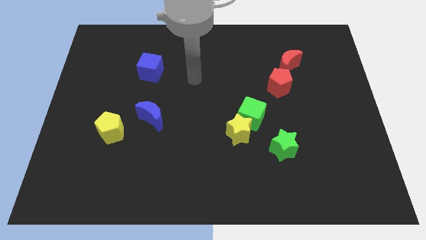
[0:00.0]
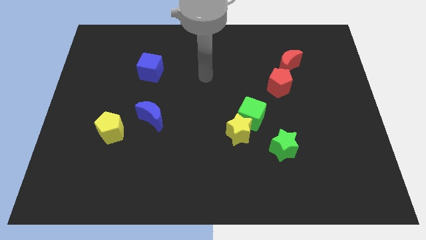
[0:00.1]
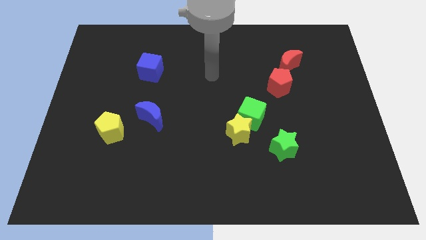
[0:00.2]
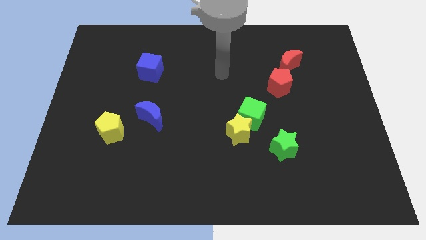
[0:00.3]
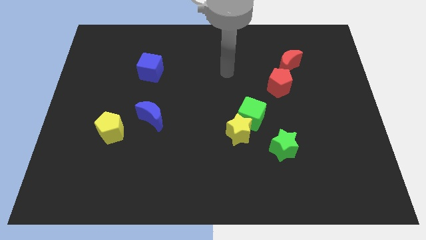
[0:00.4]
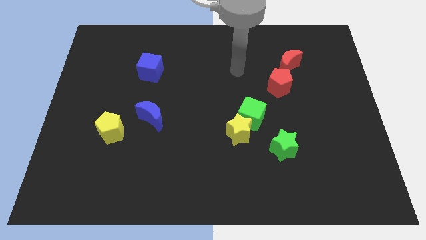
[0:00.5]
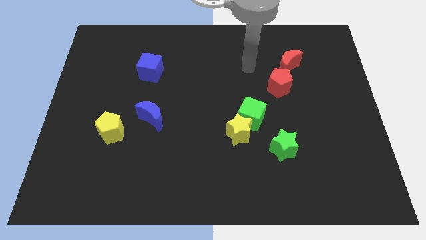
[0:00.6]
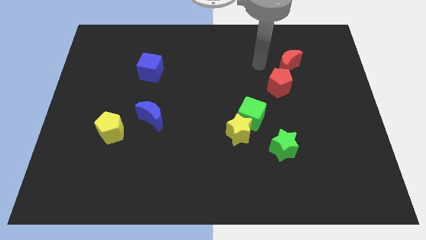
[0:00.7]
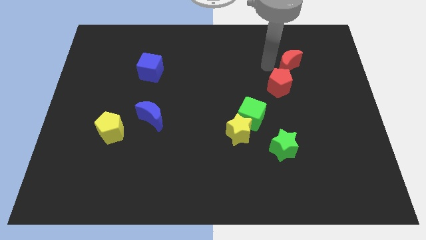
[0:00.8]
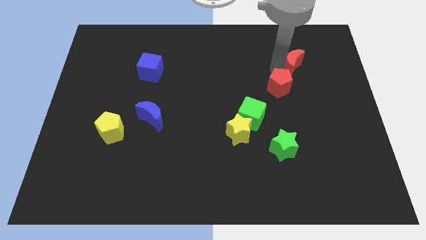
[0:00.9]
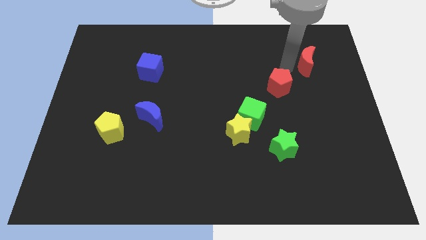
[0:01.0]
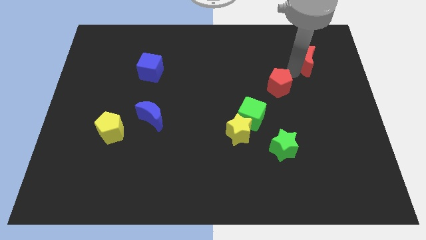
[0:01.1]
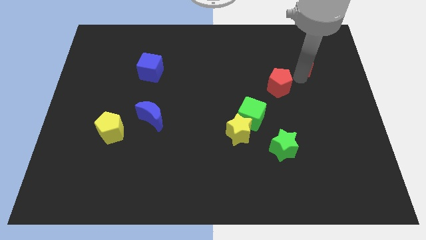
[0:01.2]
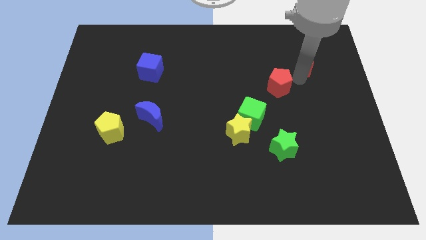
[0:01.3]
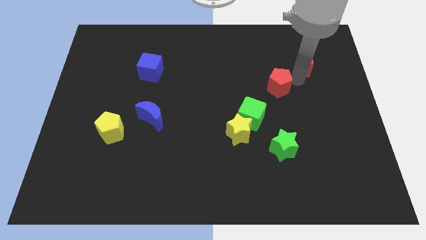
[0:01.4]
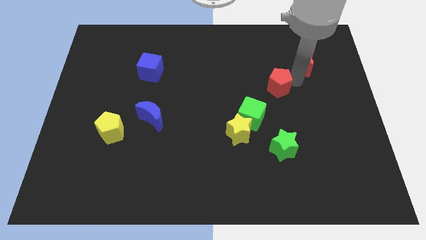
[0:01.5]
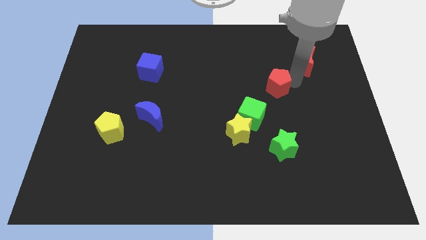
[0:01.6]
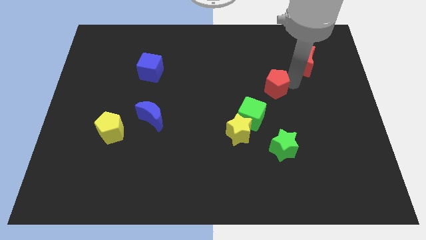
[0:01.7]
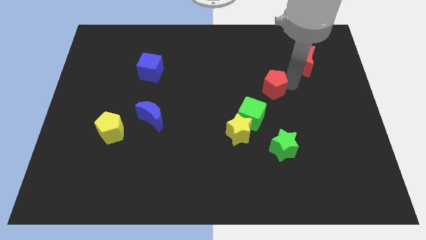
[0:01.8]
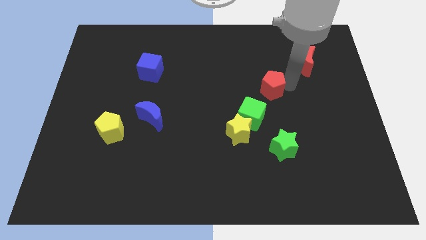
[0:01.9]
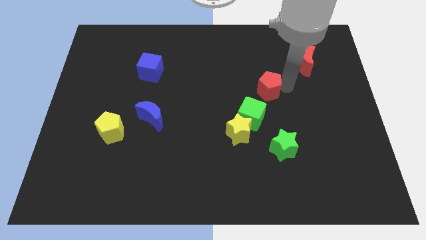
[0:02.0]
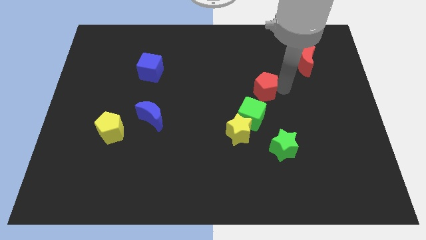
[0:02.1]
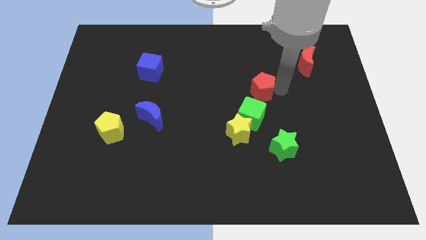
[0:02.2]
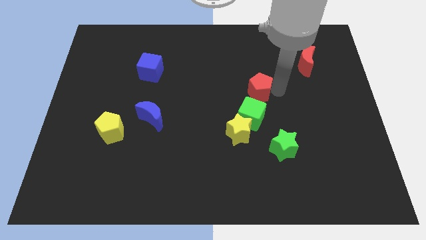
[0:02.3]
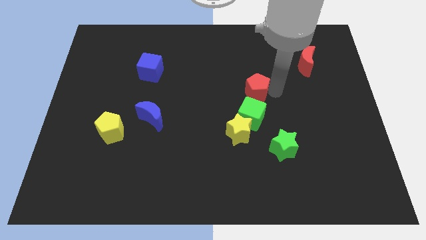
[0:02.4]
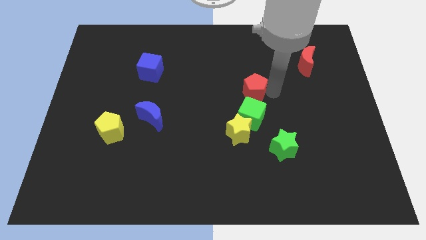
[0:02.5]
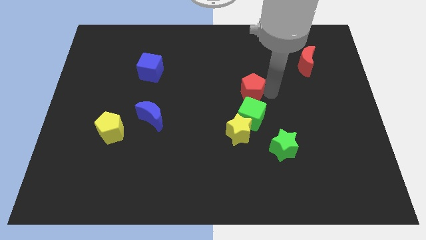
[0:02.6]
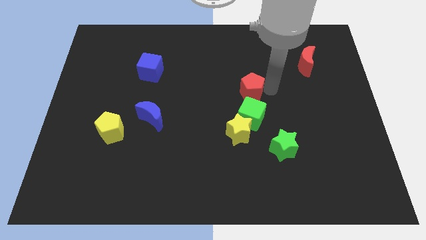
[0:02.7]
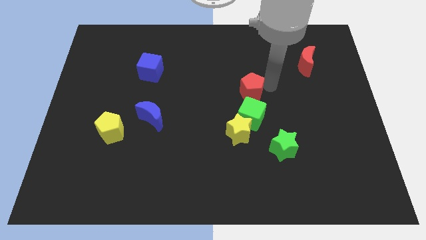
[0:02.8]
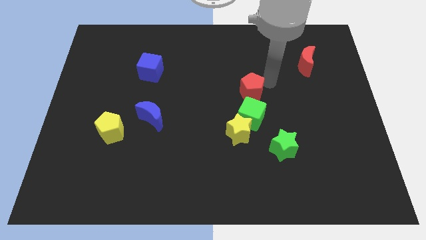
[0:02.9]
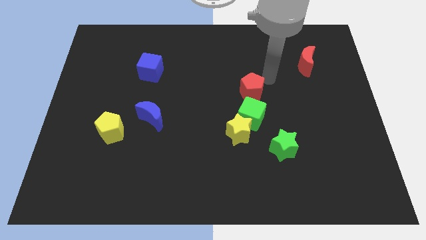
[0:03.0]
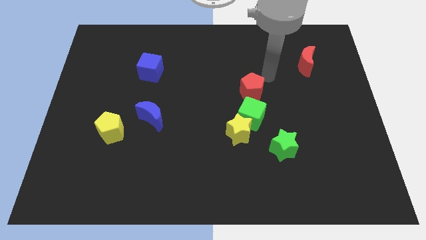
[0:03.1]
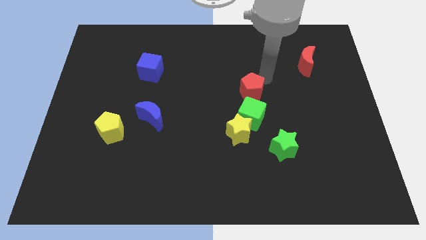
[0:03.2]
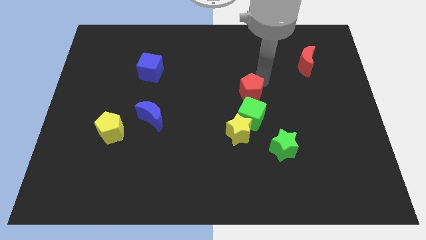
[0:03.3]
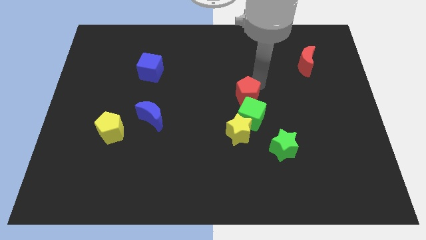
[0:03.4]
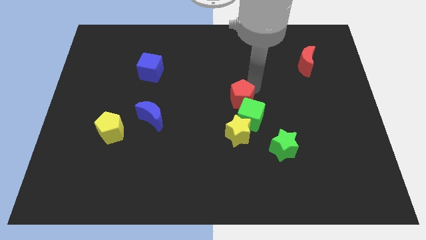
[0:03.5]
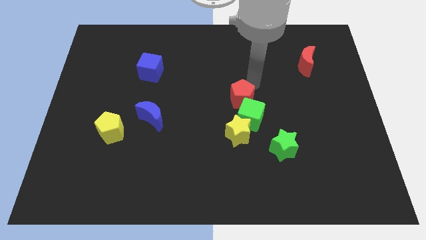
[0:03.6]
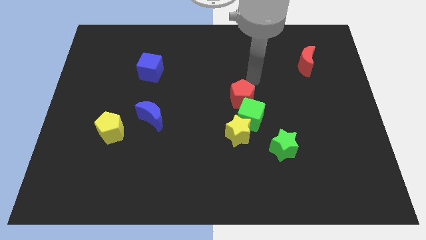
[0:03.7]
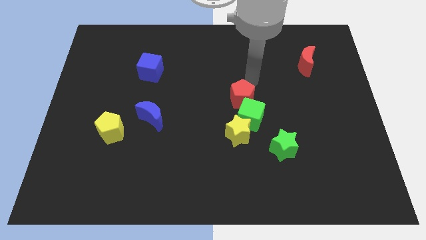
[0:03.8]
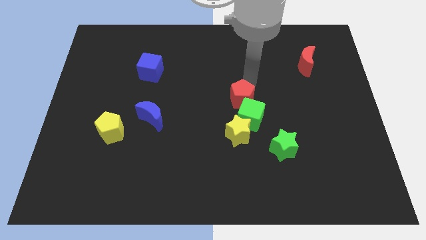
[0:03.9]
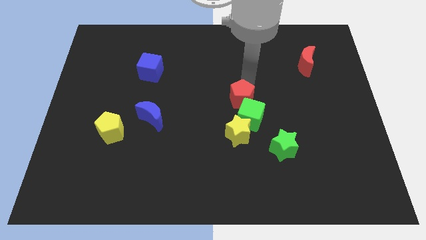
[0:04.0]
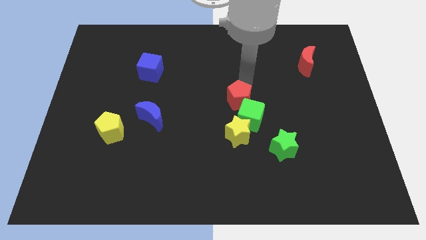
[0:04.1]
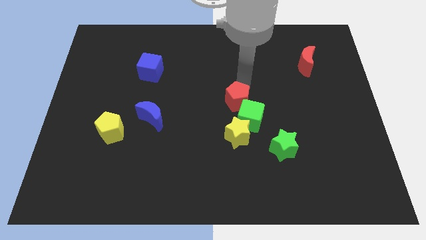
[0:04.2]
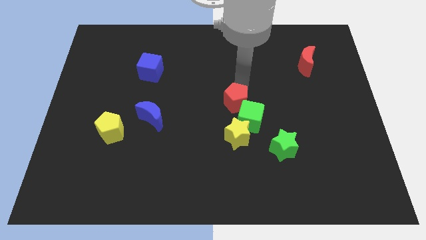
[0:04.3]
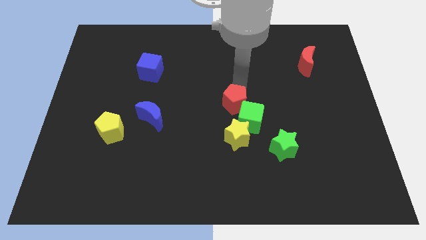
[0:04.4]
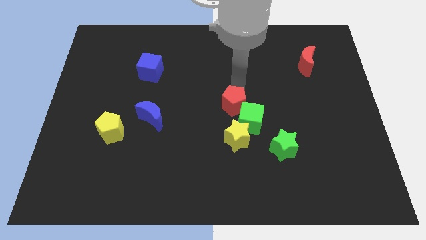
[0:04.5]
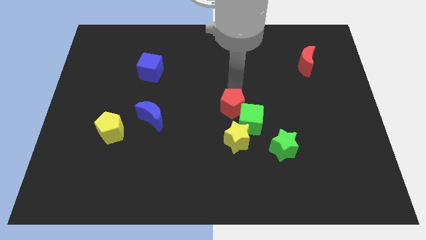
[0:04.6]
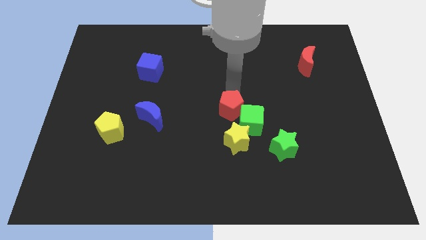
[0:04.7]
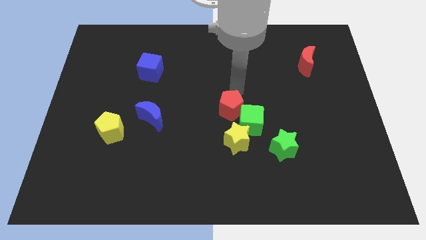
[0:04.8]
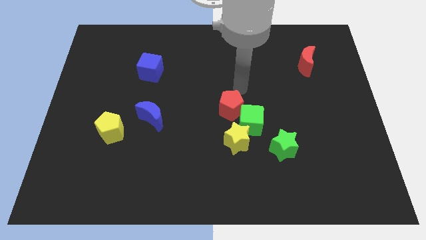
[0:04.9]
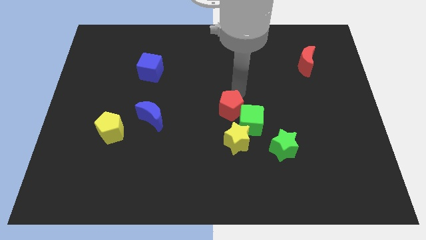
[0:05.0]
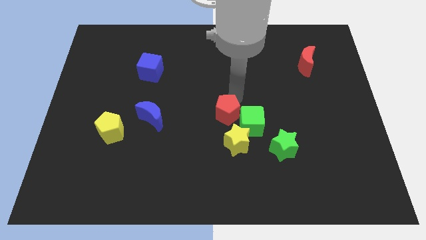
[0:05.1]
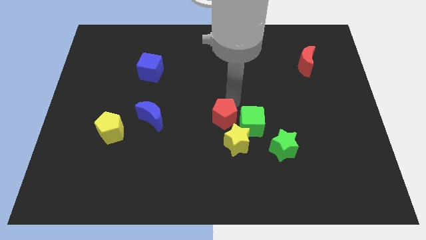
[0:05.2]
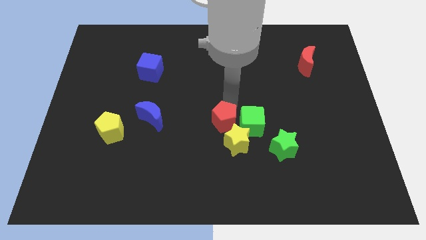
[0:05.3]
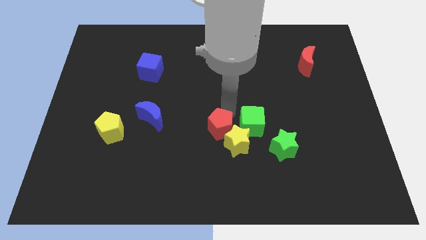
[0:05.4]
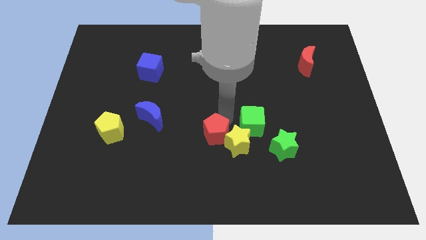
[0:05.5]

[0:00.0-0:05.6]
move the red pentagon diagonally downwards and left

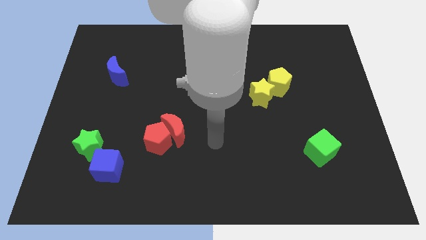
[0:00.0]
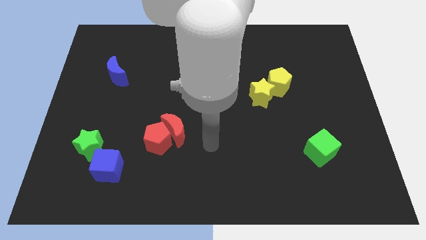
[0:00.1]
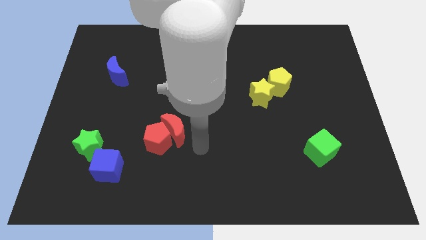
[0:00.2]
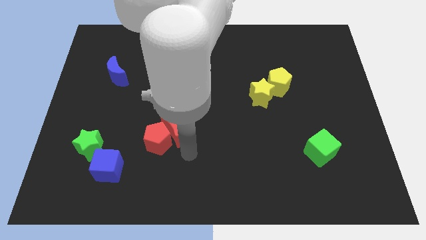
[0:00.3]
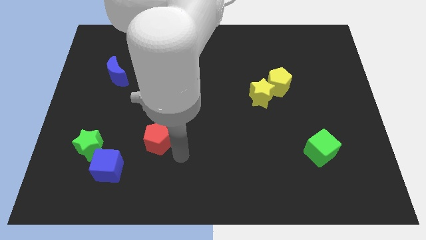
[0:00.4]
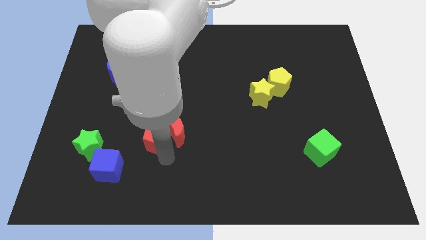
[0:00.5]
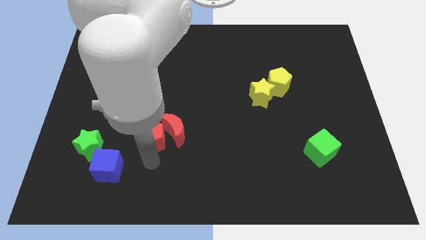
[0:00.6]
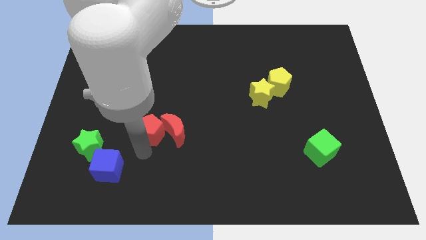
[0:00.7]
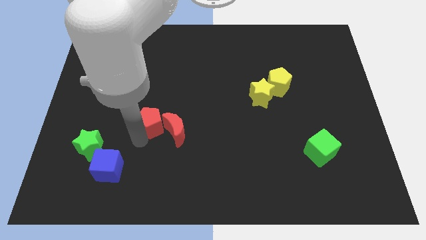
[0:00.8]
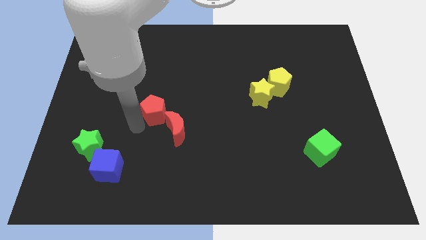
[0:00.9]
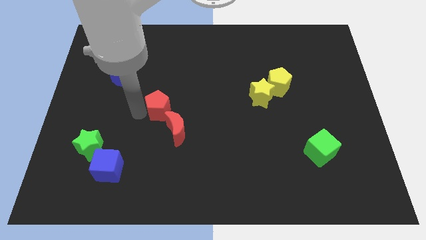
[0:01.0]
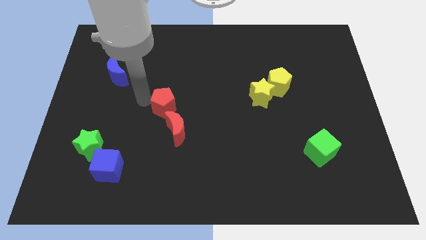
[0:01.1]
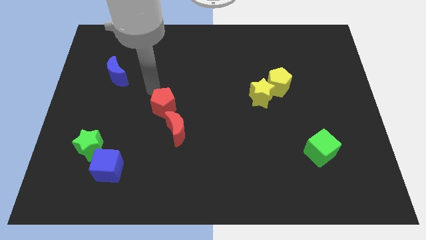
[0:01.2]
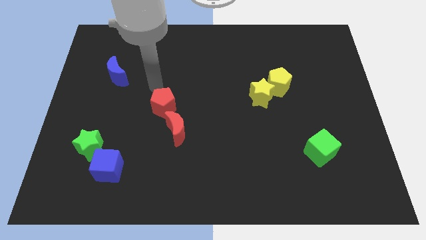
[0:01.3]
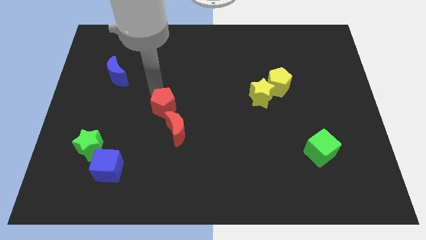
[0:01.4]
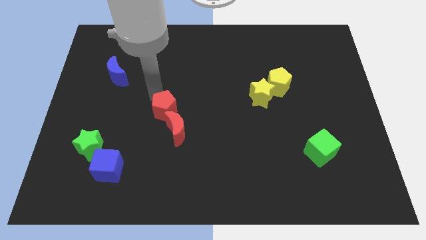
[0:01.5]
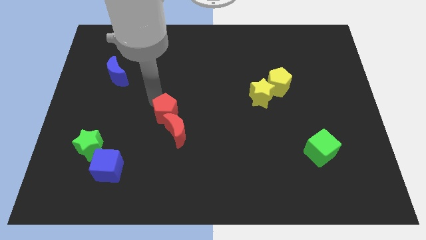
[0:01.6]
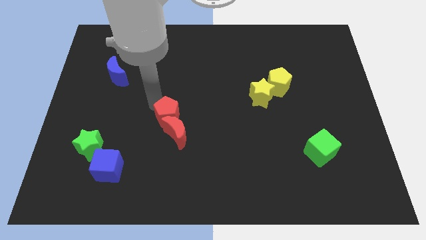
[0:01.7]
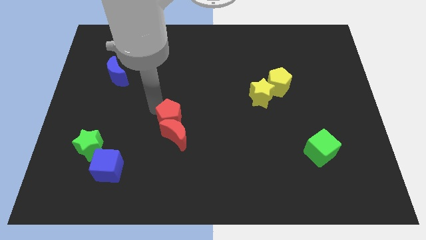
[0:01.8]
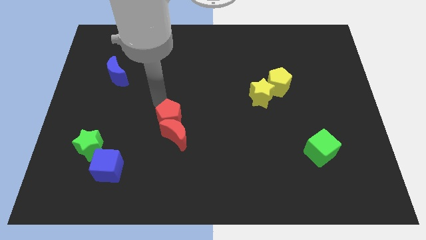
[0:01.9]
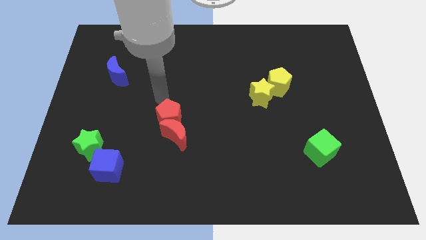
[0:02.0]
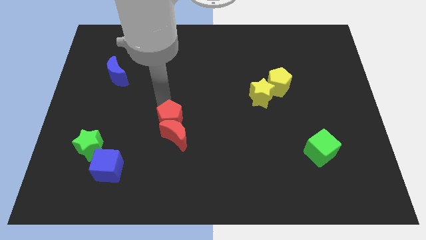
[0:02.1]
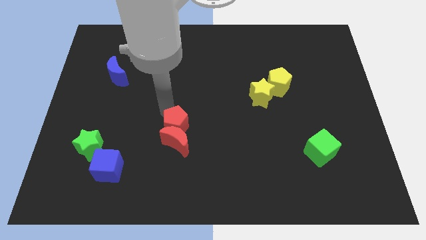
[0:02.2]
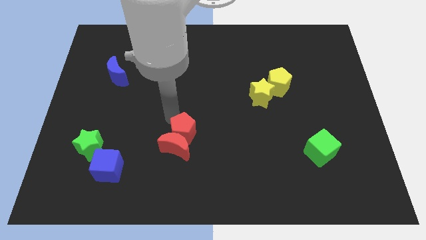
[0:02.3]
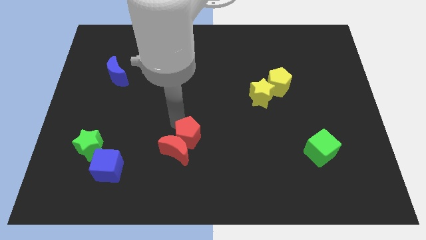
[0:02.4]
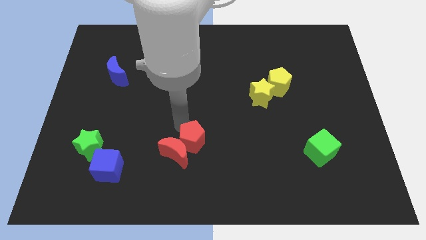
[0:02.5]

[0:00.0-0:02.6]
move the red pentagon right somewhat
